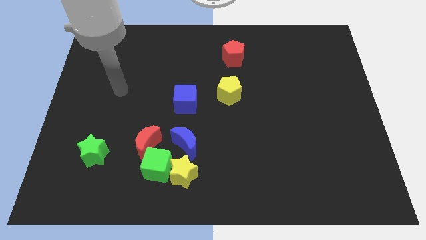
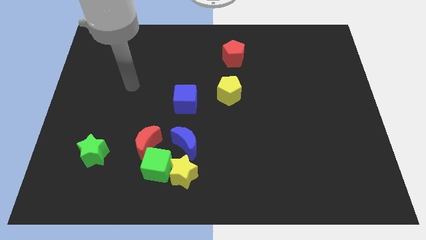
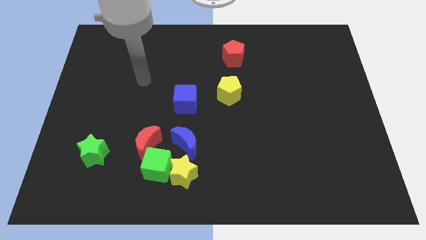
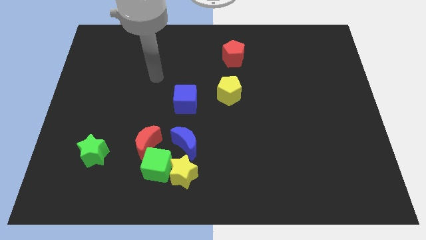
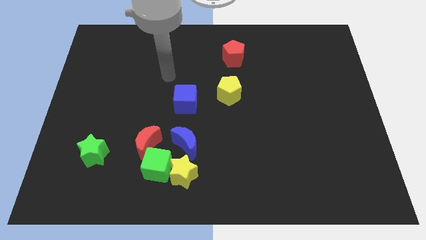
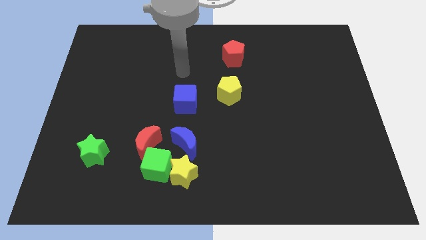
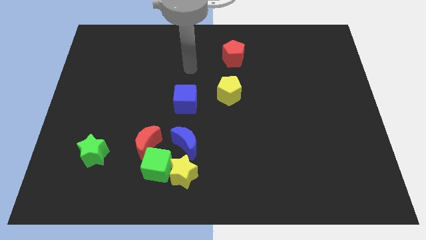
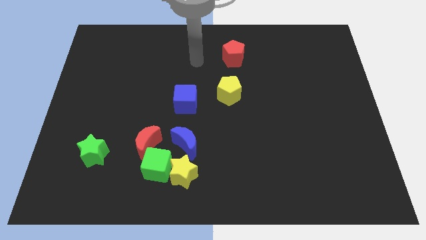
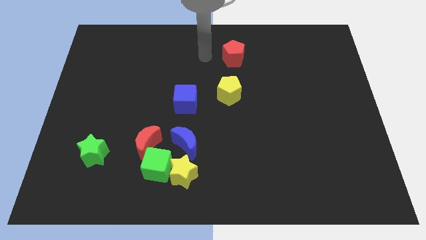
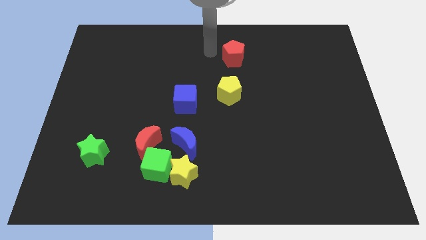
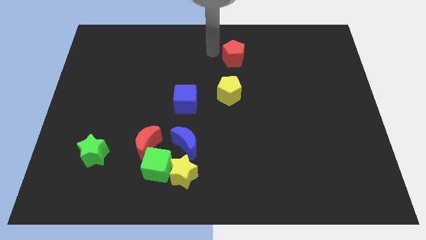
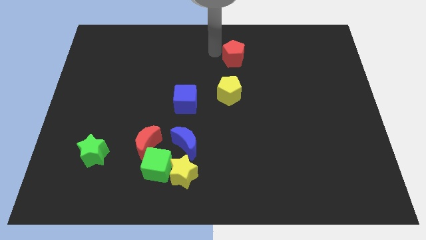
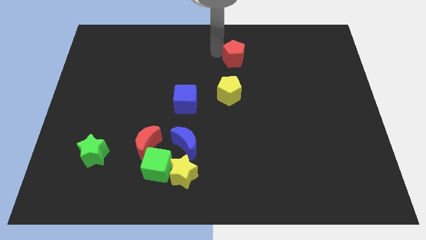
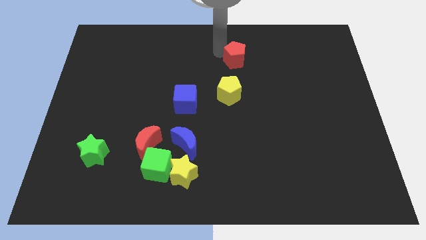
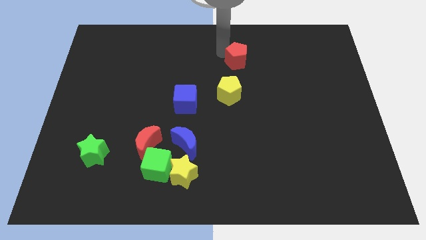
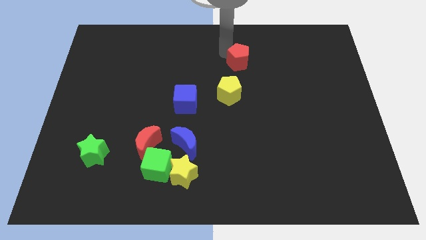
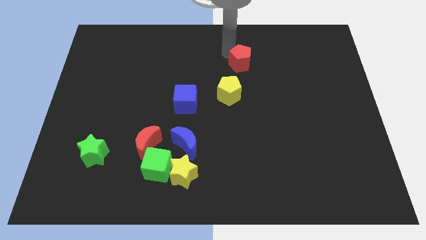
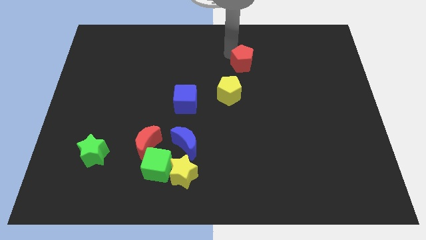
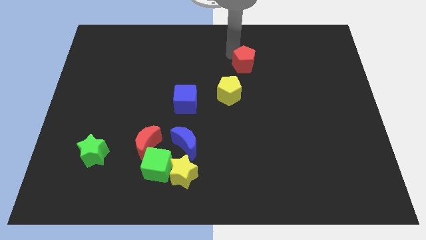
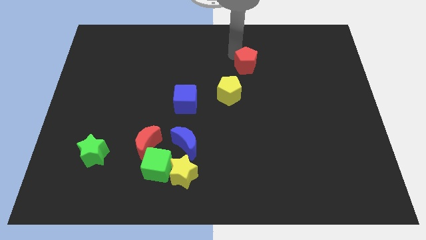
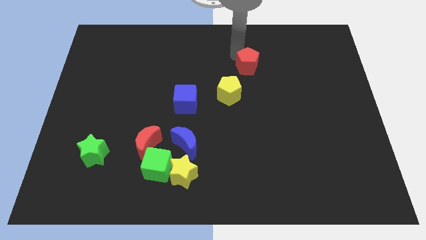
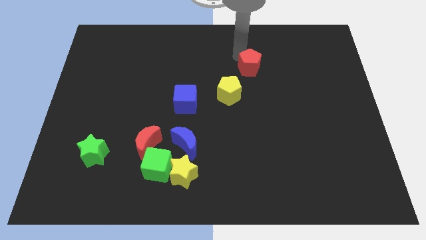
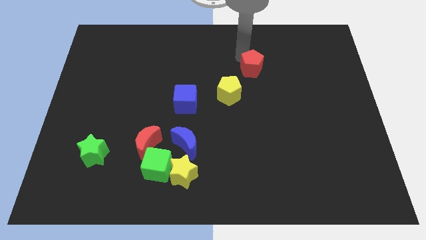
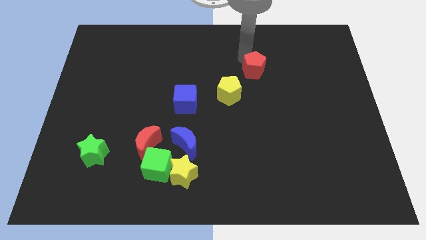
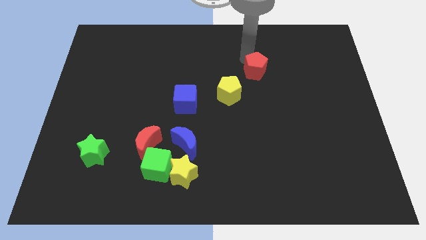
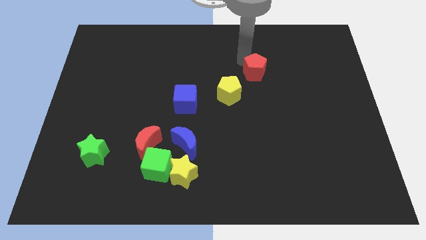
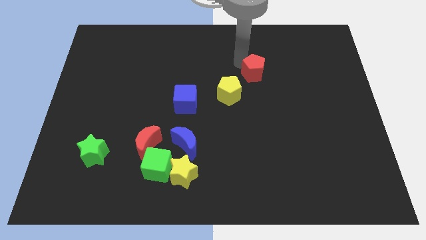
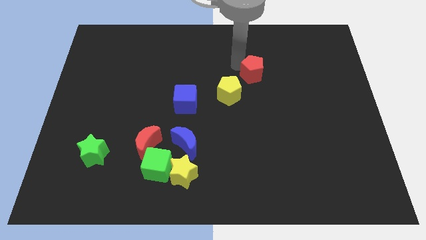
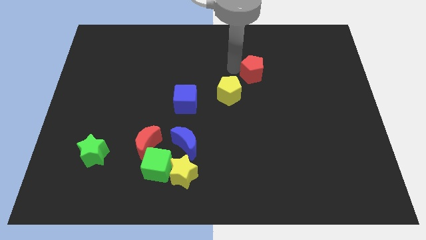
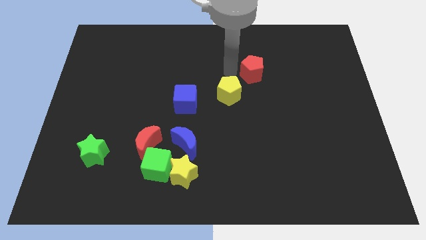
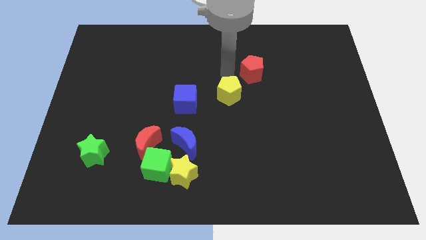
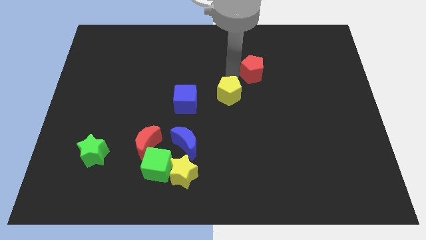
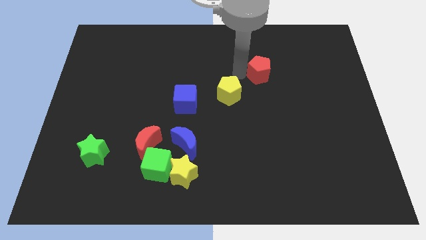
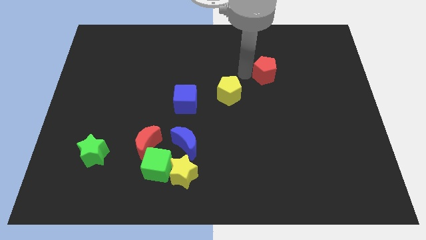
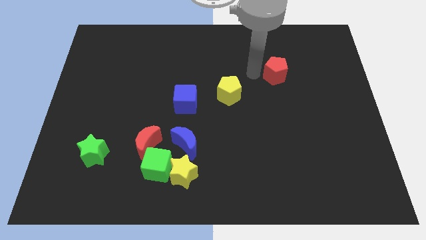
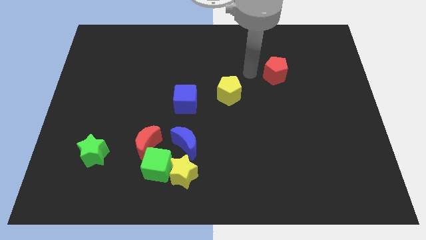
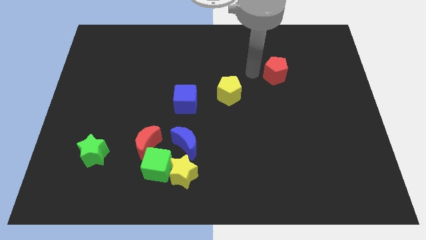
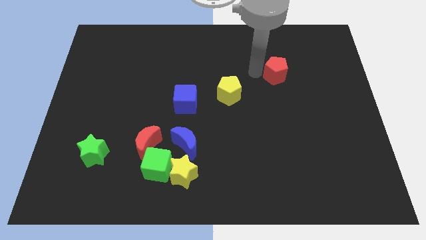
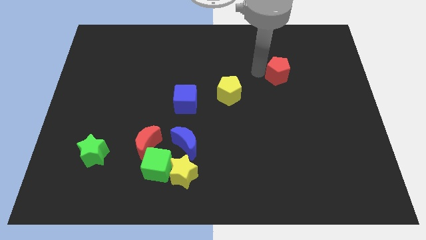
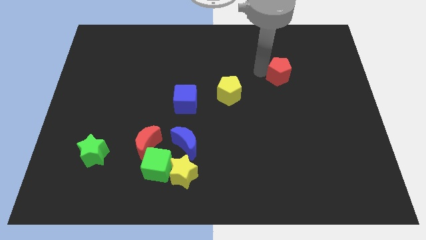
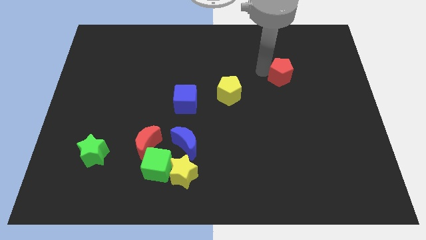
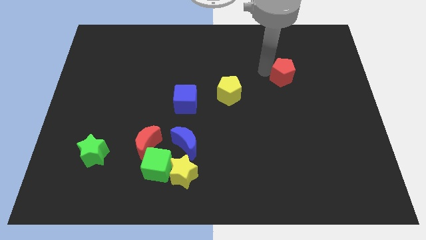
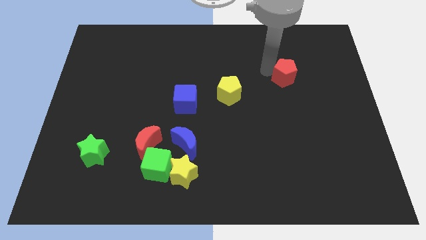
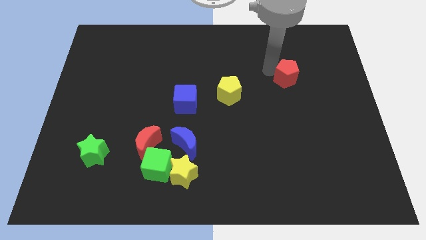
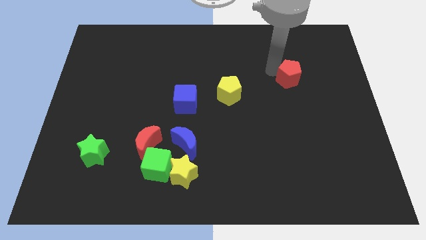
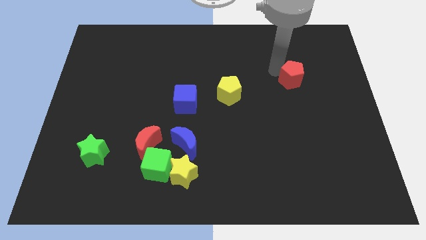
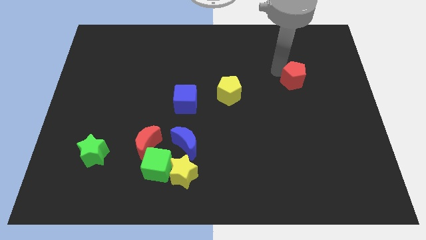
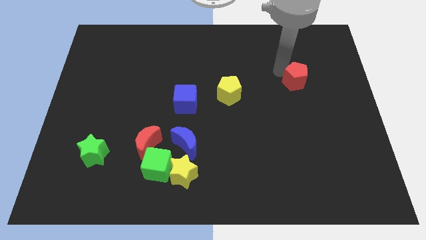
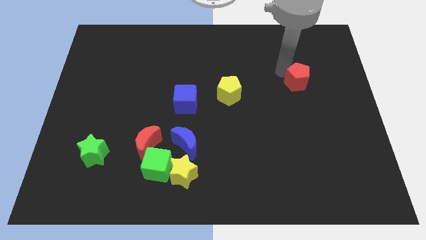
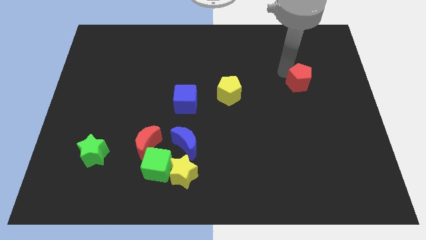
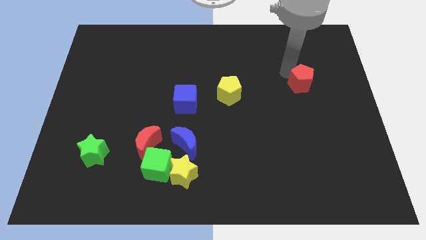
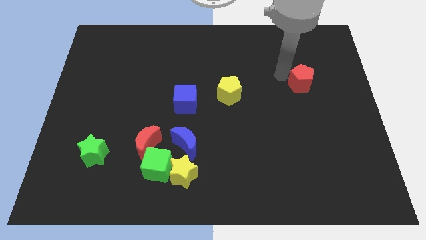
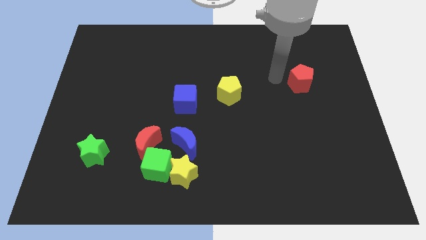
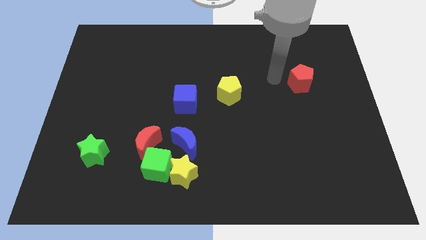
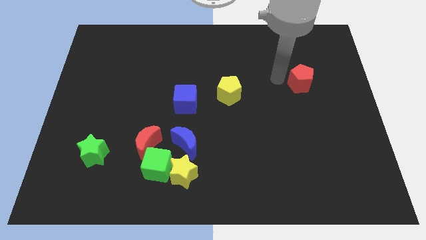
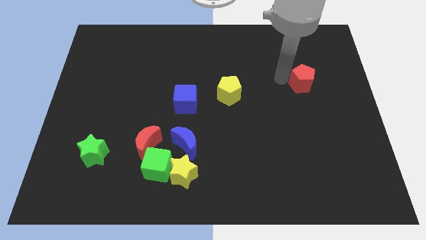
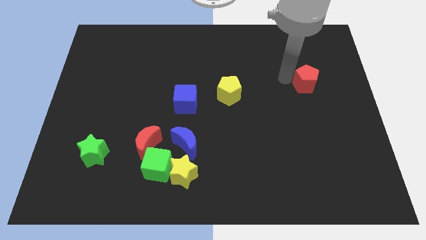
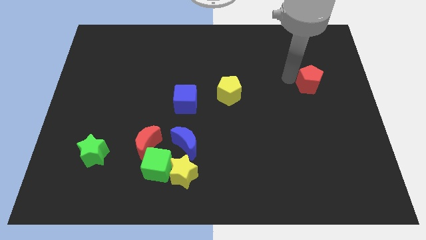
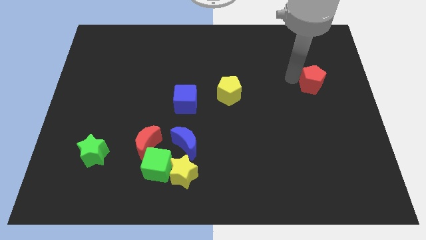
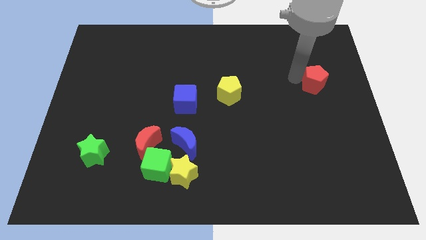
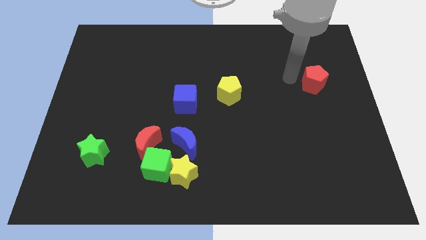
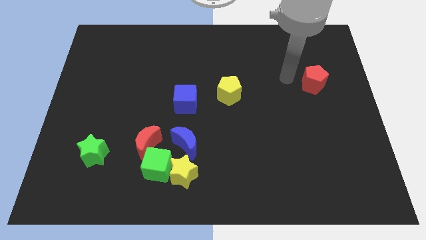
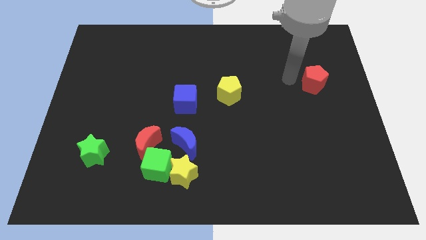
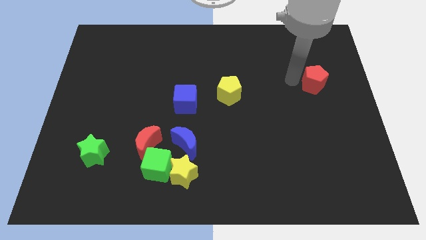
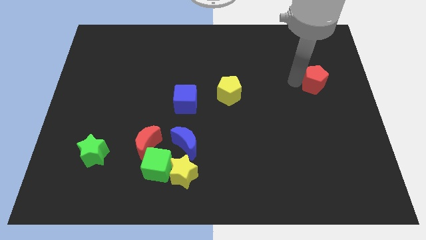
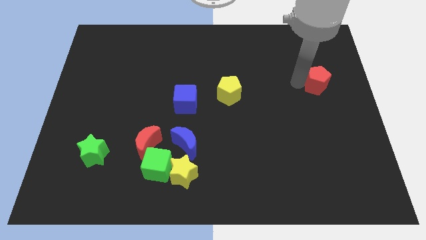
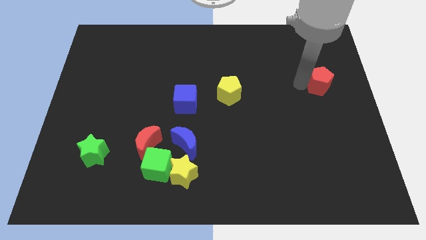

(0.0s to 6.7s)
slide the red pentagon to the right side of the board

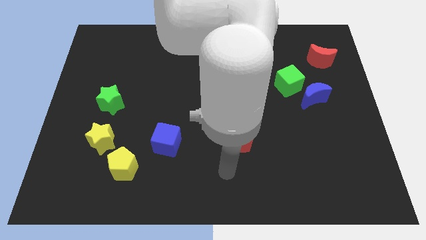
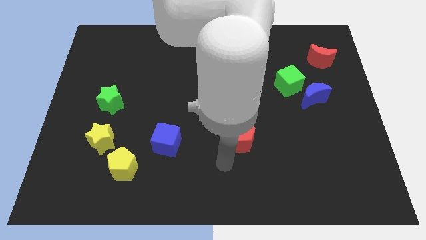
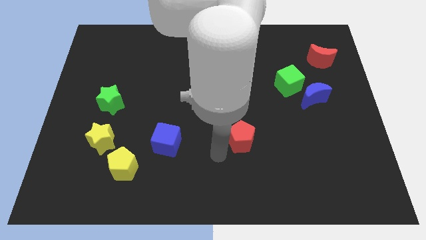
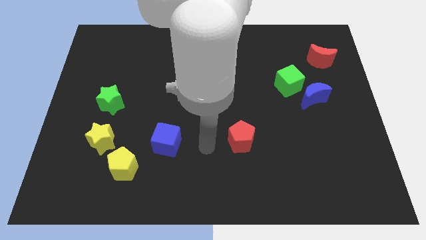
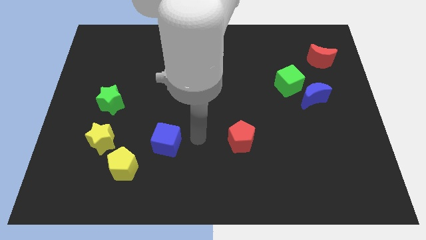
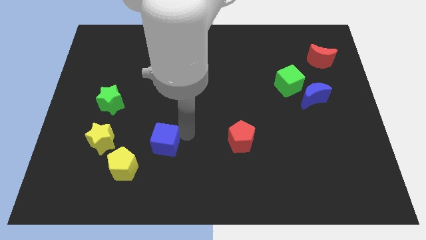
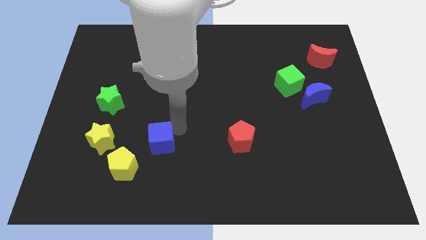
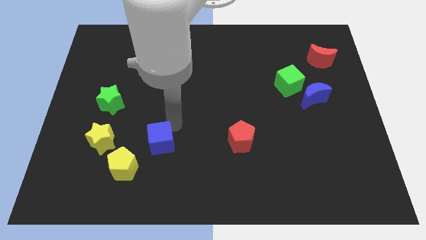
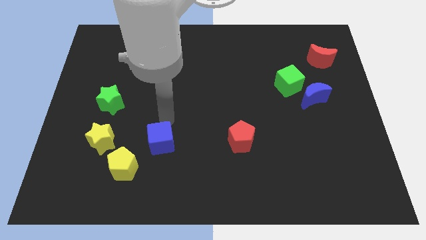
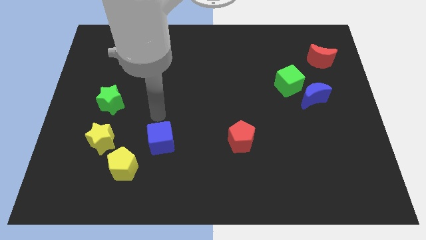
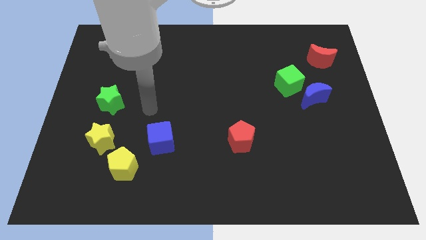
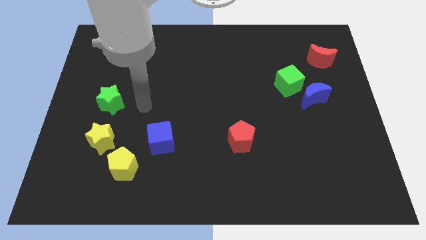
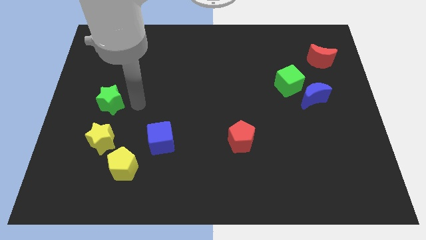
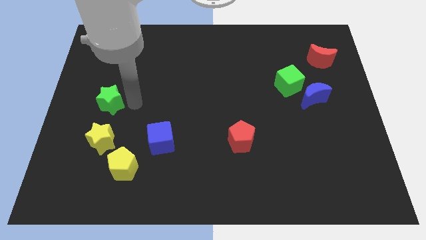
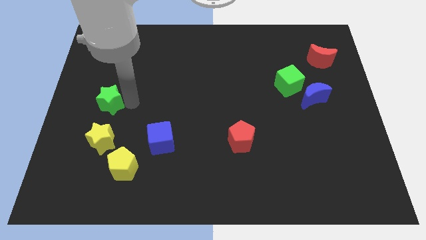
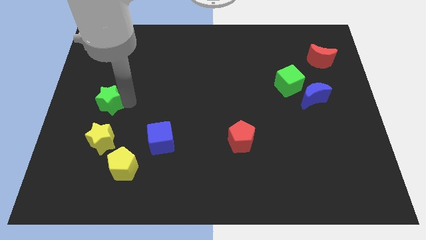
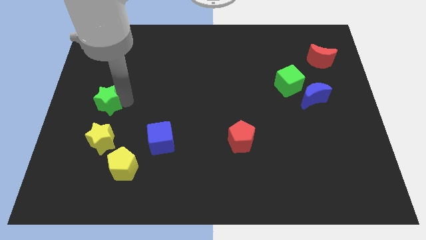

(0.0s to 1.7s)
move the green star to the left side
